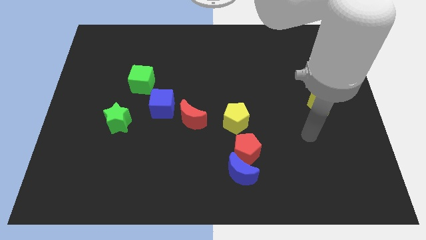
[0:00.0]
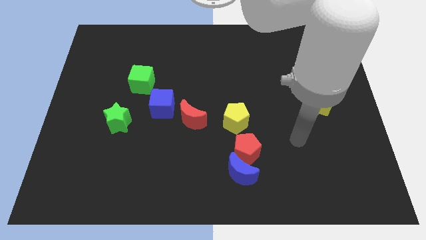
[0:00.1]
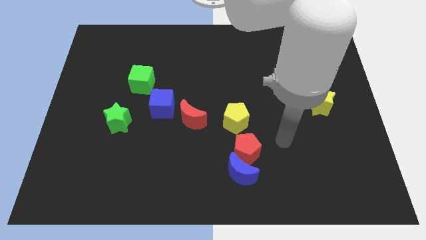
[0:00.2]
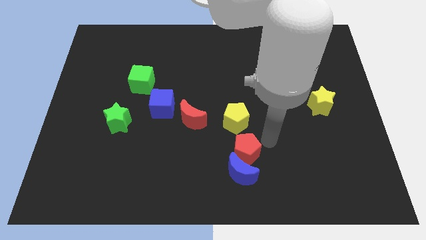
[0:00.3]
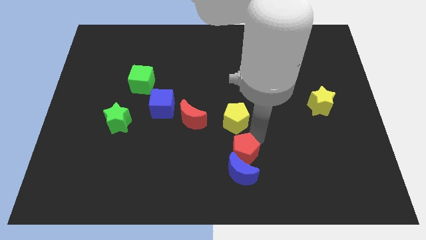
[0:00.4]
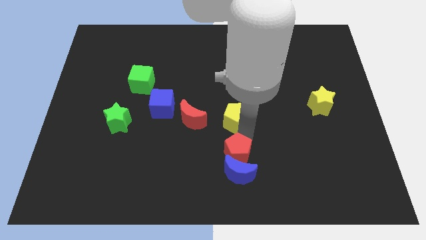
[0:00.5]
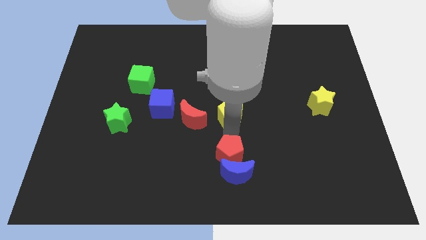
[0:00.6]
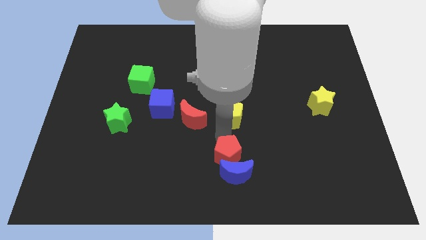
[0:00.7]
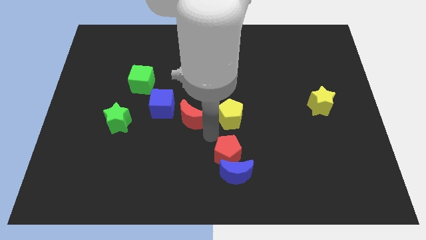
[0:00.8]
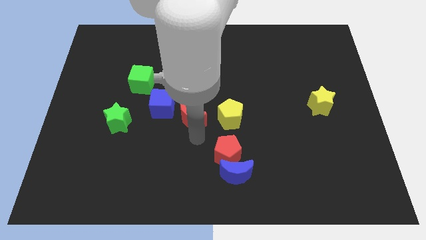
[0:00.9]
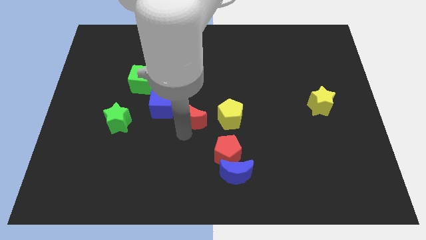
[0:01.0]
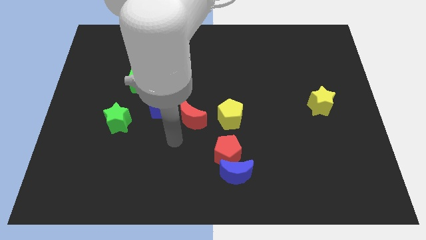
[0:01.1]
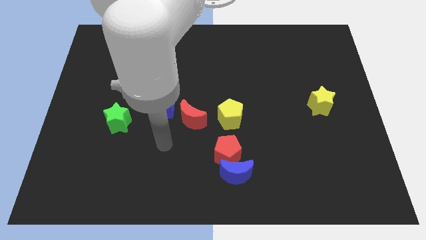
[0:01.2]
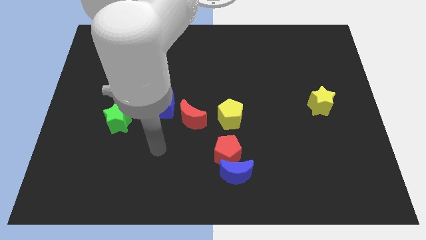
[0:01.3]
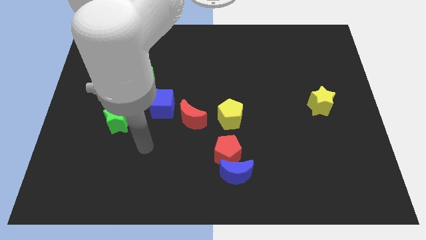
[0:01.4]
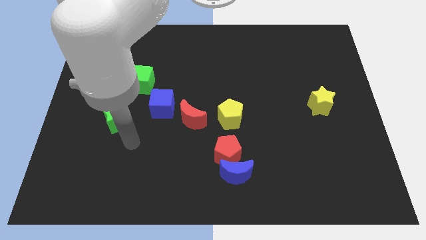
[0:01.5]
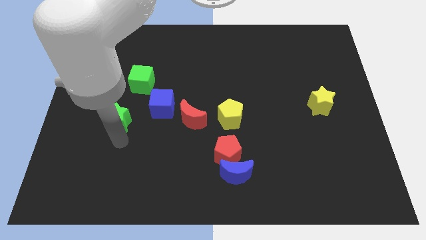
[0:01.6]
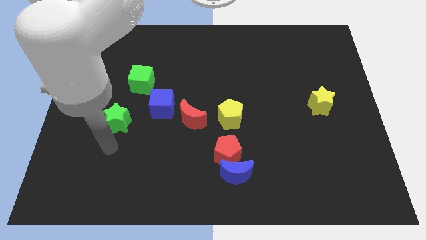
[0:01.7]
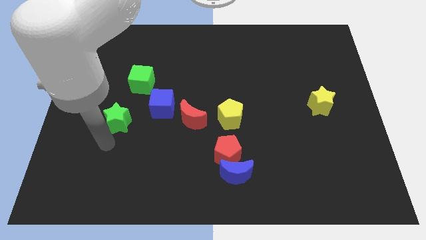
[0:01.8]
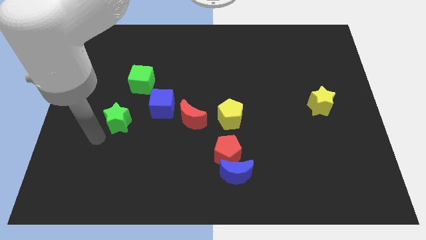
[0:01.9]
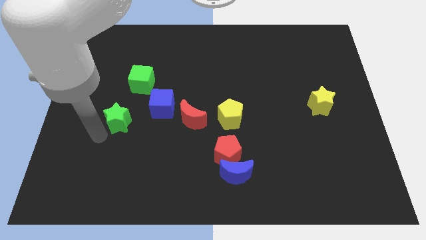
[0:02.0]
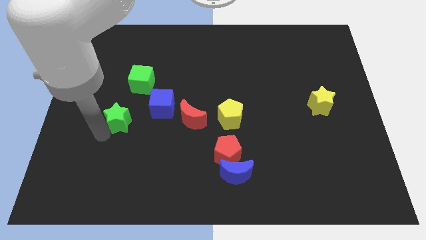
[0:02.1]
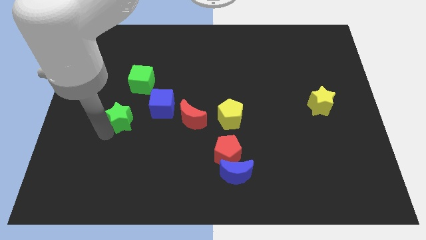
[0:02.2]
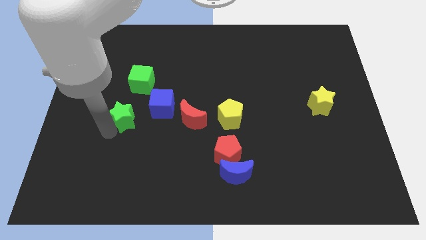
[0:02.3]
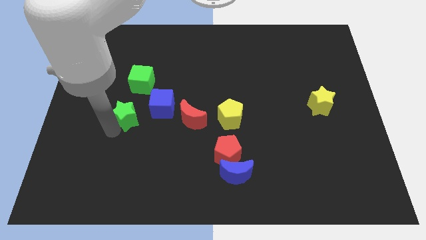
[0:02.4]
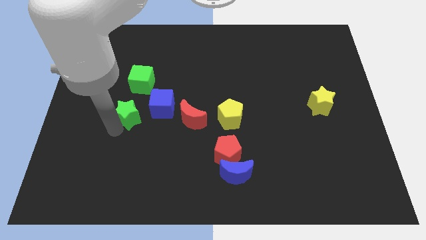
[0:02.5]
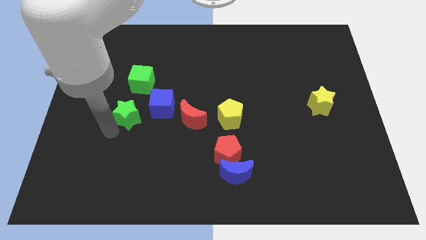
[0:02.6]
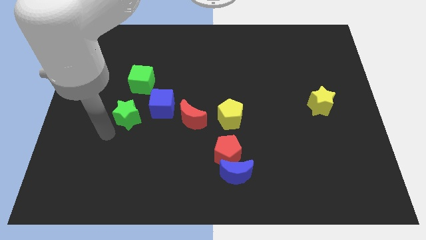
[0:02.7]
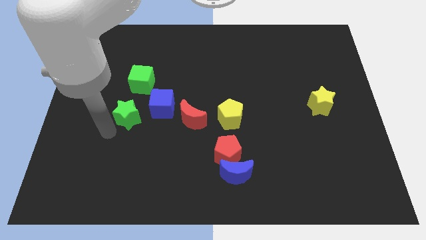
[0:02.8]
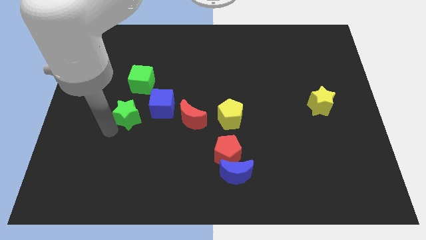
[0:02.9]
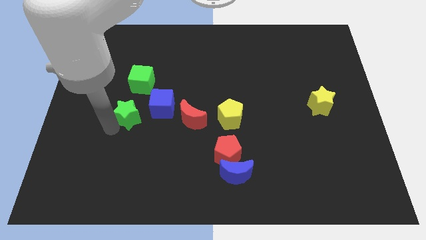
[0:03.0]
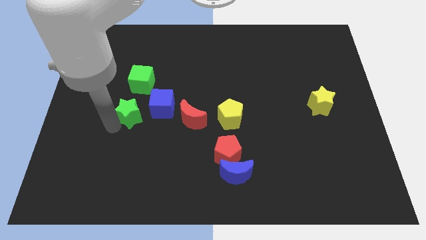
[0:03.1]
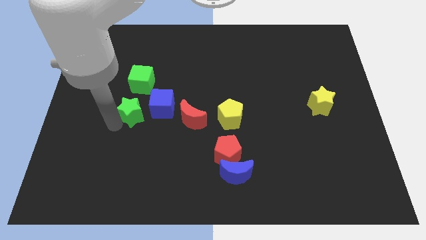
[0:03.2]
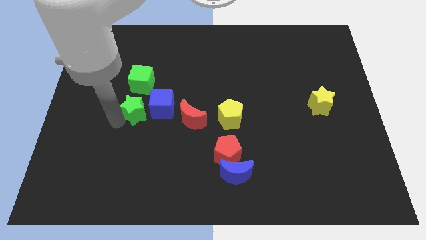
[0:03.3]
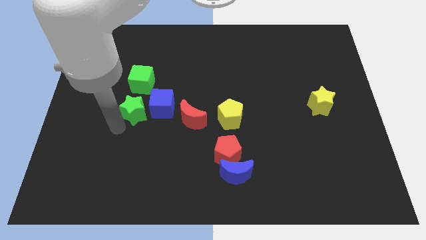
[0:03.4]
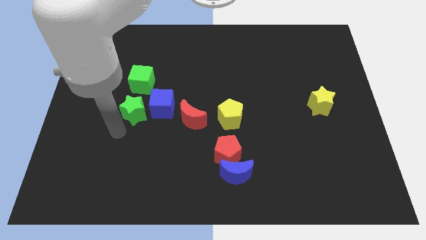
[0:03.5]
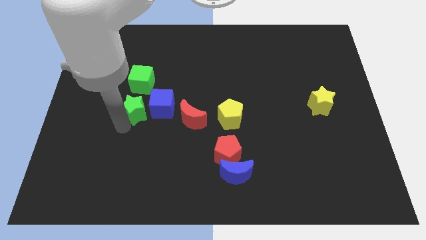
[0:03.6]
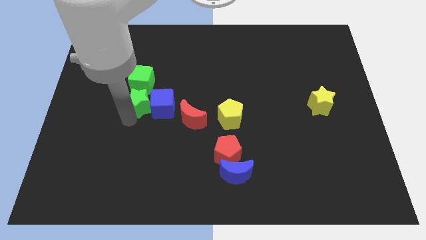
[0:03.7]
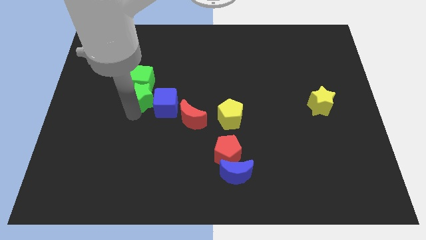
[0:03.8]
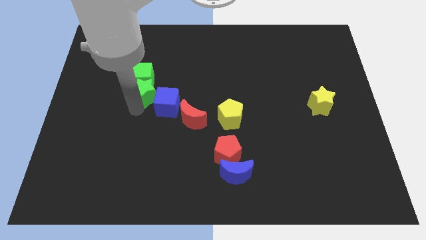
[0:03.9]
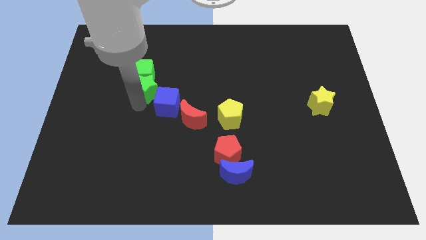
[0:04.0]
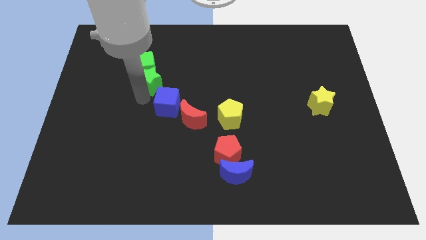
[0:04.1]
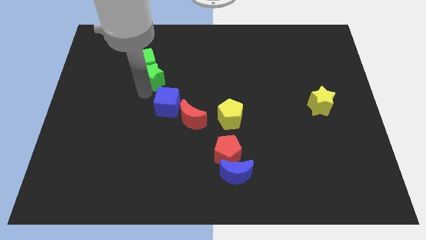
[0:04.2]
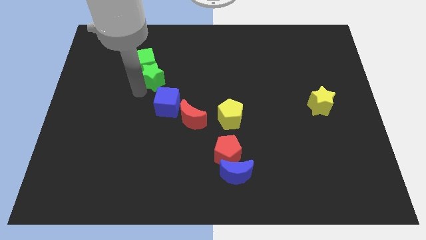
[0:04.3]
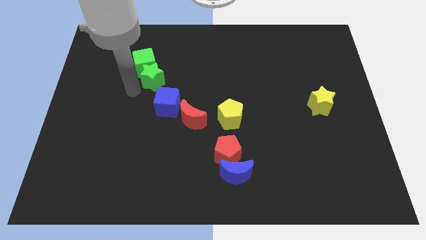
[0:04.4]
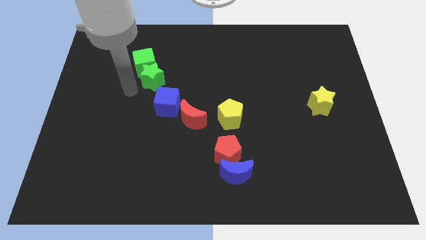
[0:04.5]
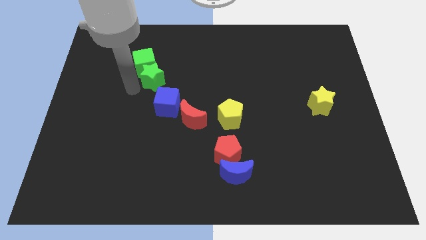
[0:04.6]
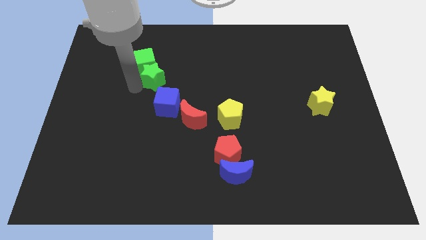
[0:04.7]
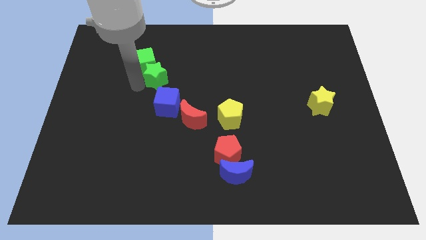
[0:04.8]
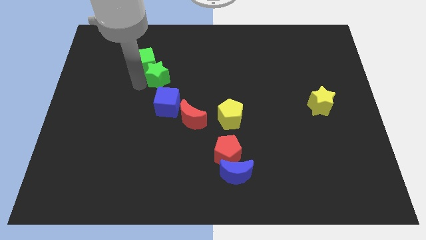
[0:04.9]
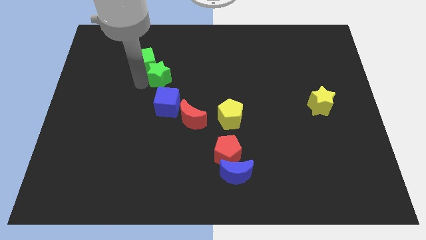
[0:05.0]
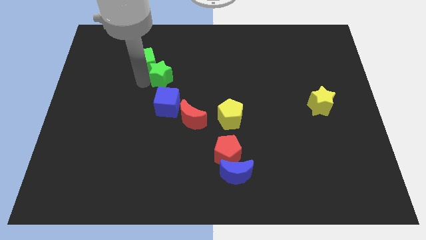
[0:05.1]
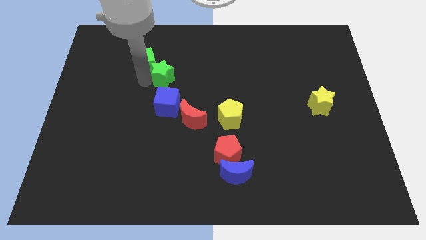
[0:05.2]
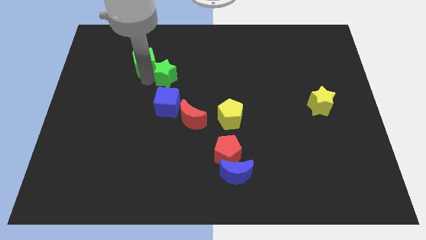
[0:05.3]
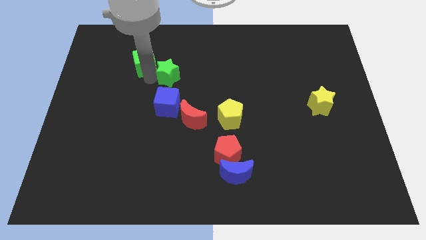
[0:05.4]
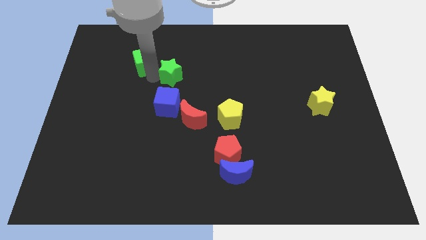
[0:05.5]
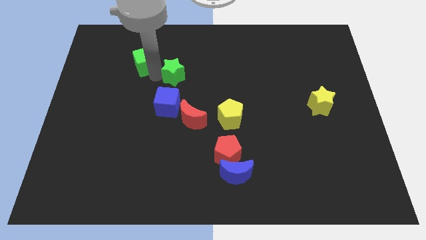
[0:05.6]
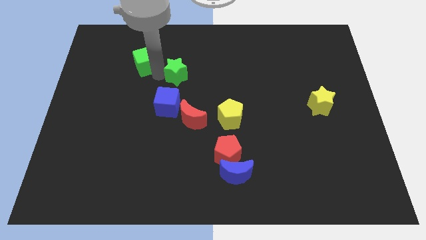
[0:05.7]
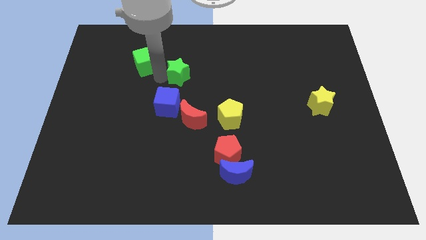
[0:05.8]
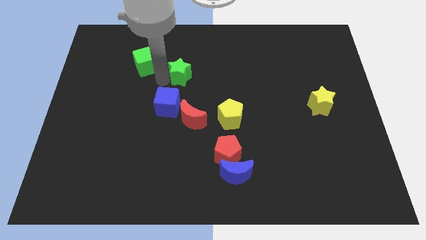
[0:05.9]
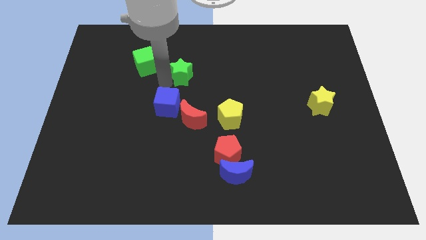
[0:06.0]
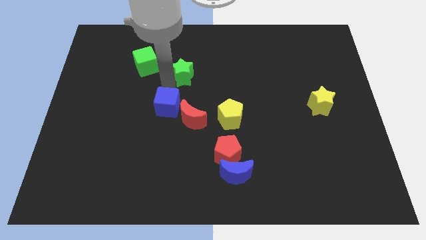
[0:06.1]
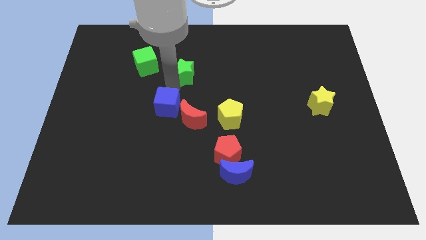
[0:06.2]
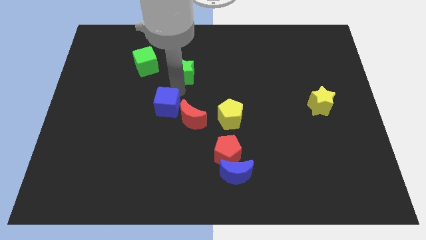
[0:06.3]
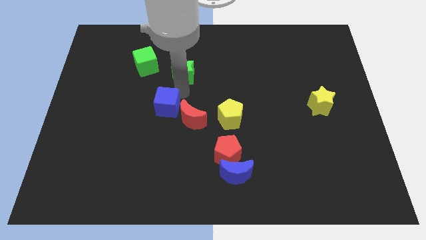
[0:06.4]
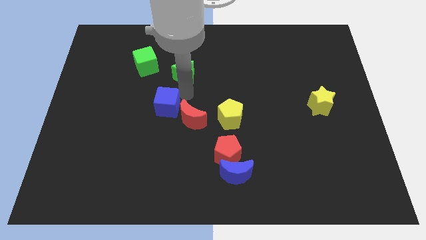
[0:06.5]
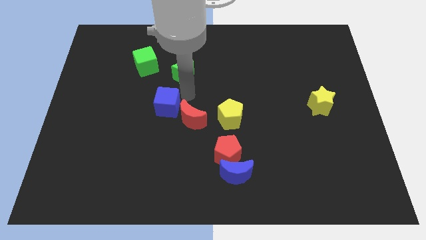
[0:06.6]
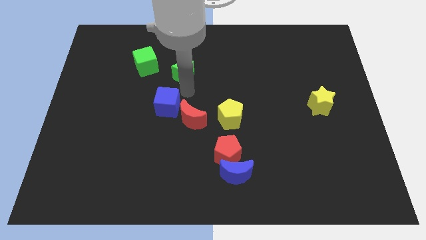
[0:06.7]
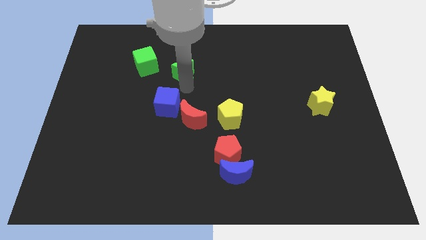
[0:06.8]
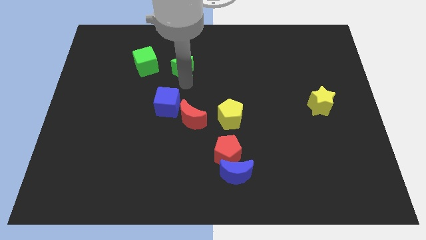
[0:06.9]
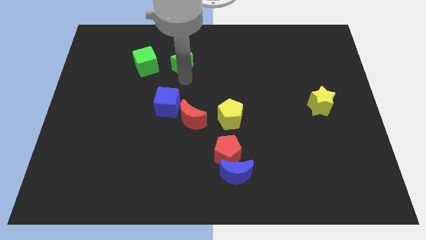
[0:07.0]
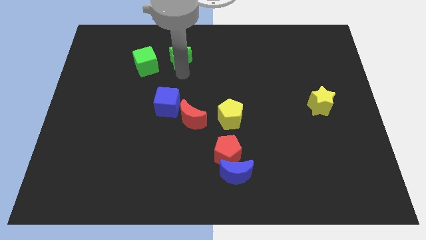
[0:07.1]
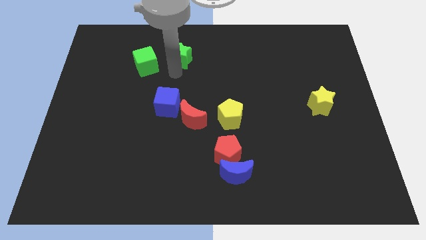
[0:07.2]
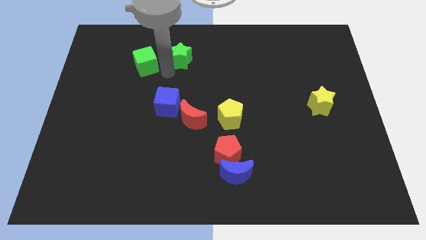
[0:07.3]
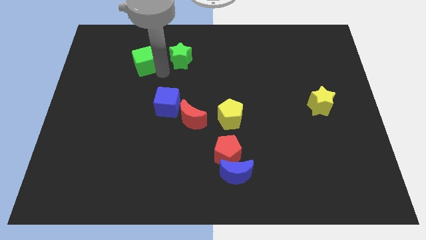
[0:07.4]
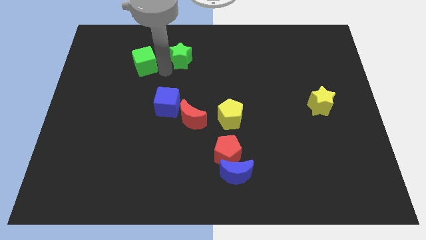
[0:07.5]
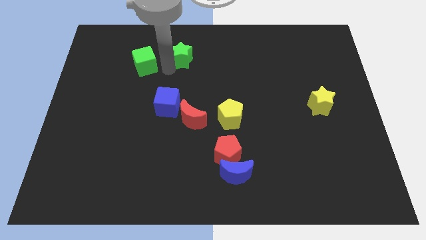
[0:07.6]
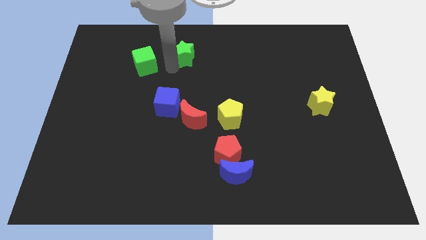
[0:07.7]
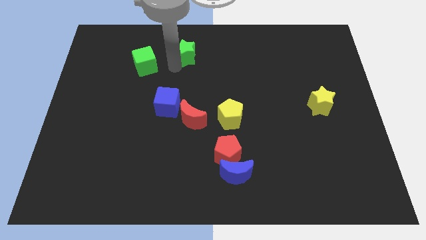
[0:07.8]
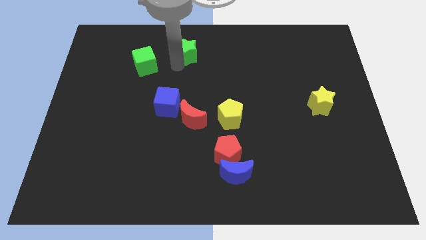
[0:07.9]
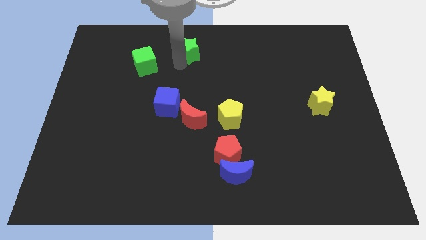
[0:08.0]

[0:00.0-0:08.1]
slide the green star to the towards your base
